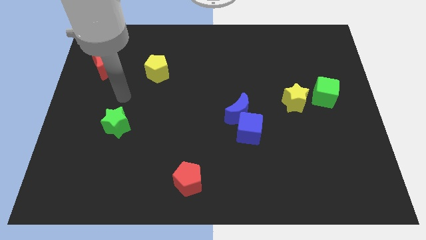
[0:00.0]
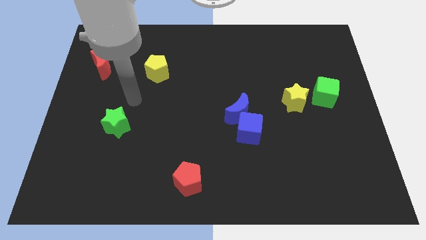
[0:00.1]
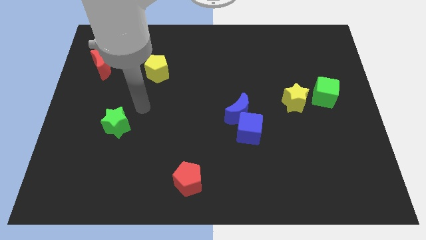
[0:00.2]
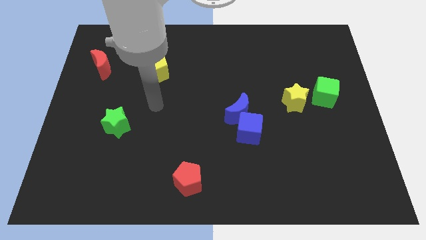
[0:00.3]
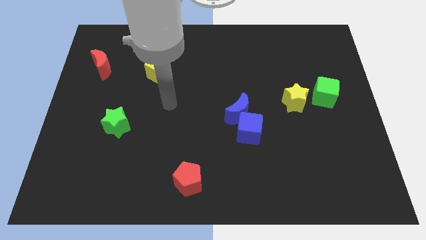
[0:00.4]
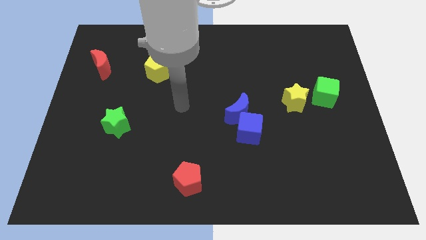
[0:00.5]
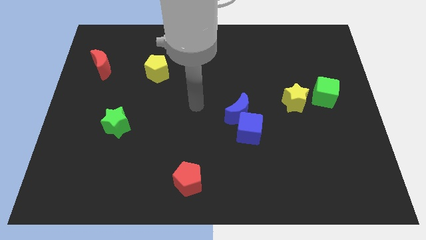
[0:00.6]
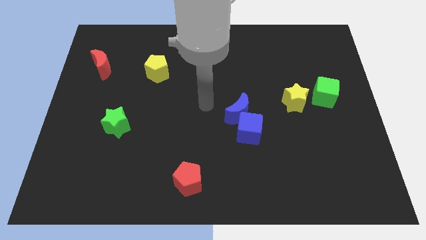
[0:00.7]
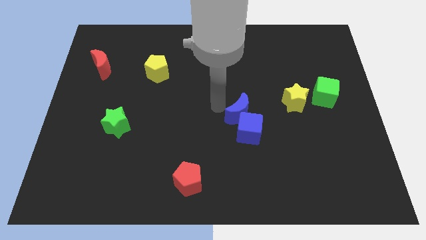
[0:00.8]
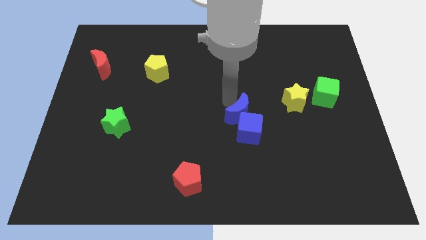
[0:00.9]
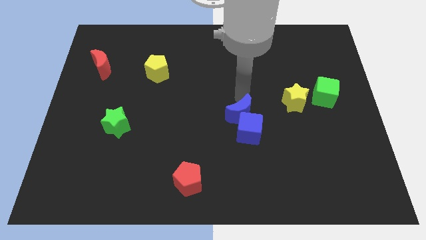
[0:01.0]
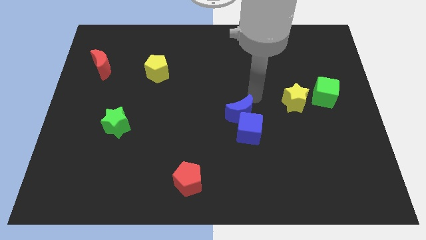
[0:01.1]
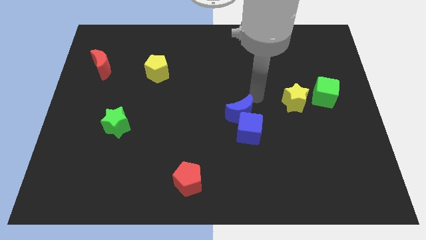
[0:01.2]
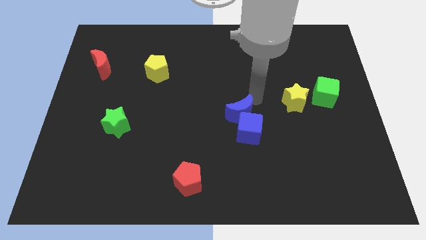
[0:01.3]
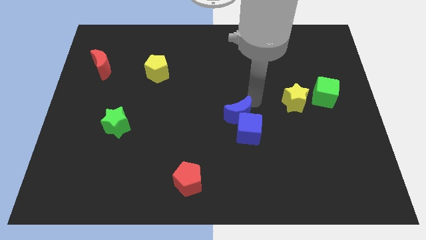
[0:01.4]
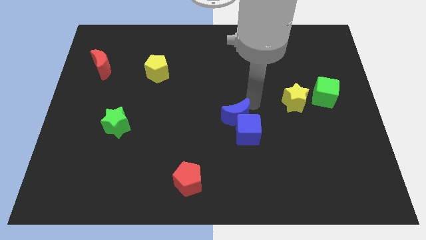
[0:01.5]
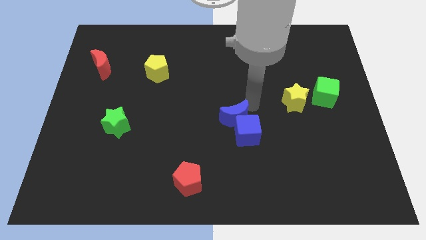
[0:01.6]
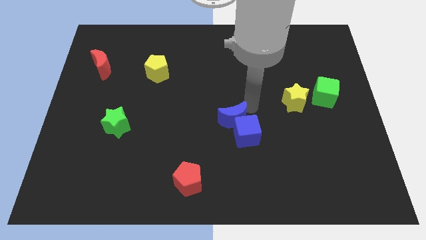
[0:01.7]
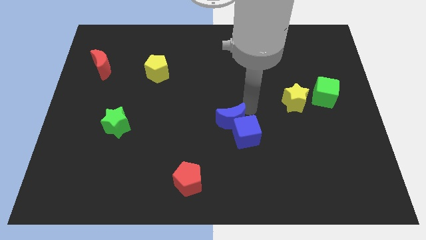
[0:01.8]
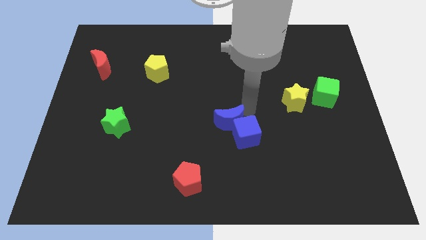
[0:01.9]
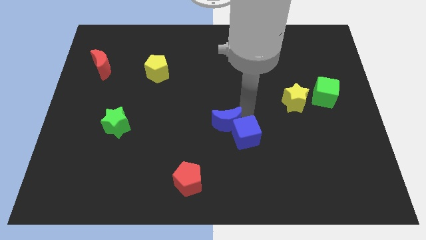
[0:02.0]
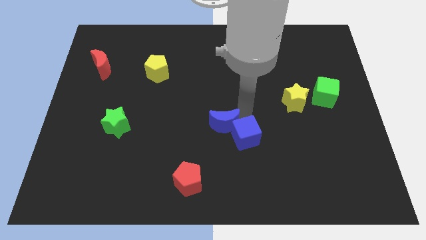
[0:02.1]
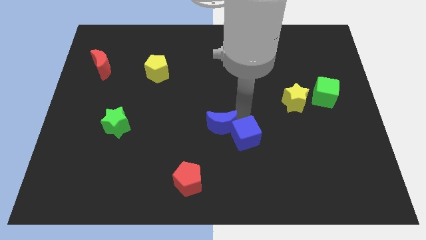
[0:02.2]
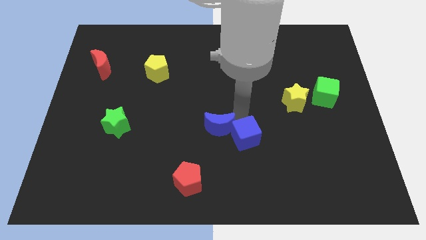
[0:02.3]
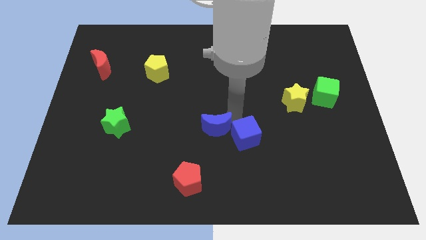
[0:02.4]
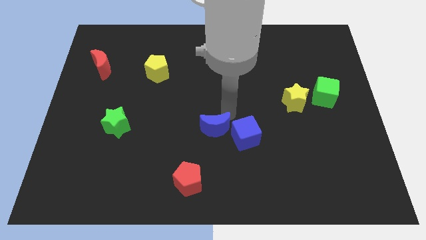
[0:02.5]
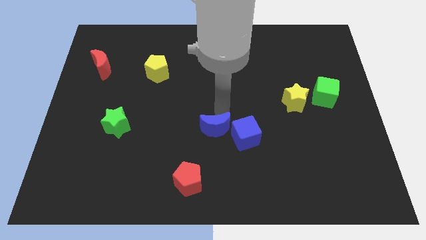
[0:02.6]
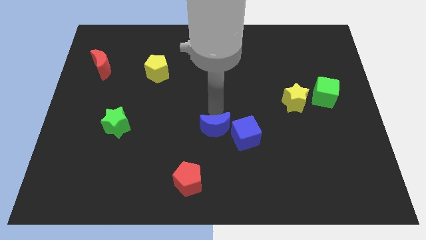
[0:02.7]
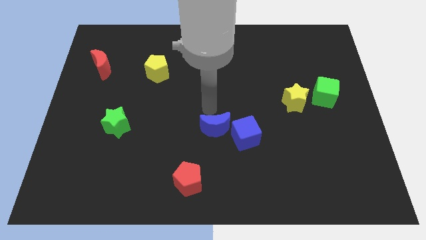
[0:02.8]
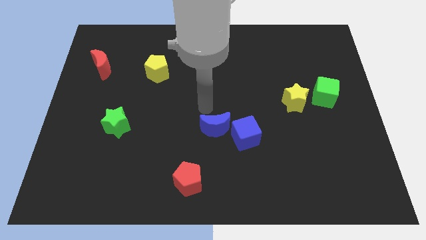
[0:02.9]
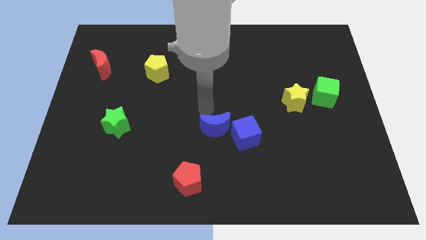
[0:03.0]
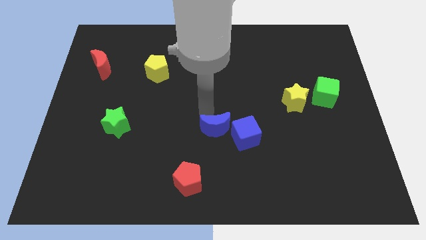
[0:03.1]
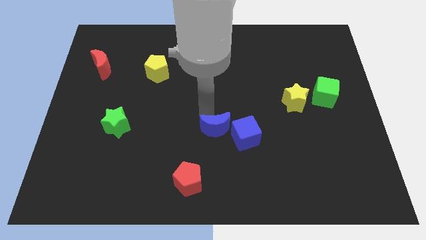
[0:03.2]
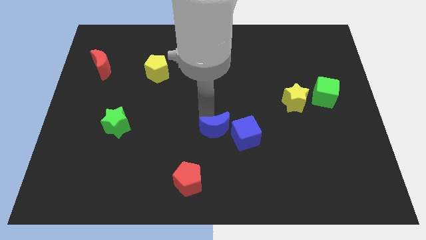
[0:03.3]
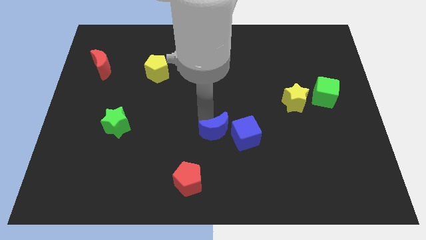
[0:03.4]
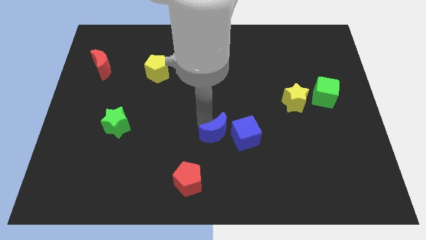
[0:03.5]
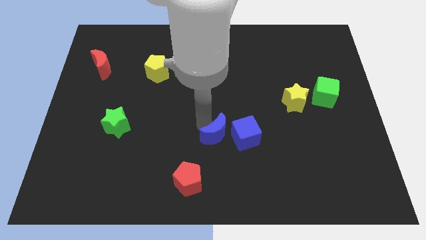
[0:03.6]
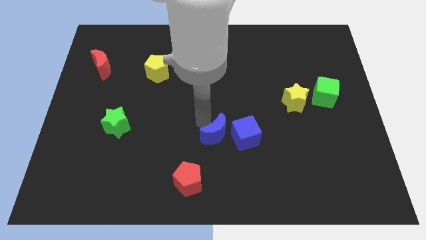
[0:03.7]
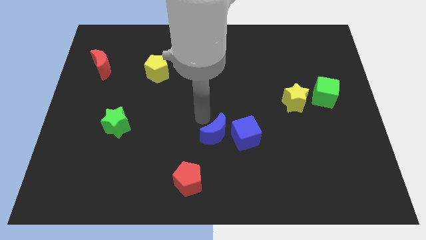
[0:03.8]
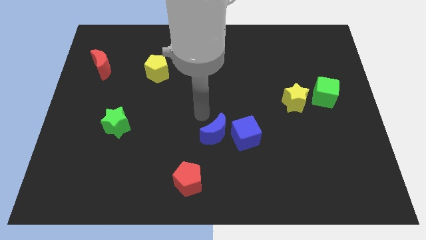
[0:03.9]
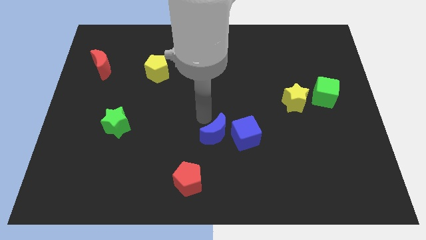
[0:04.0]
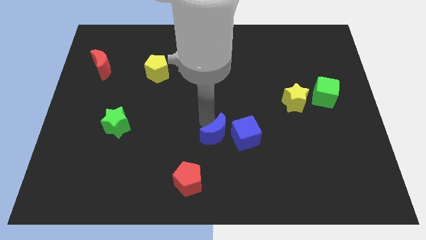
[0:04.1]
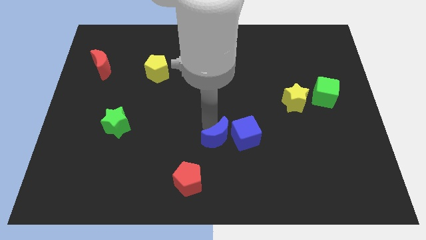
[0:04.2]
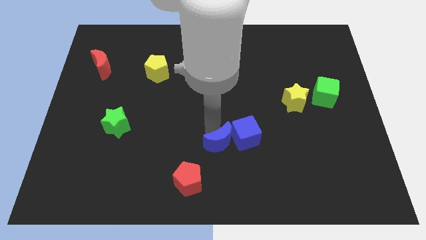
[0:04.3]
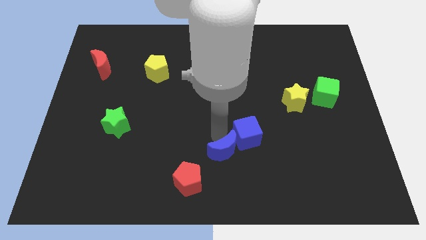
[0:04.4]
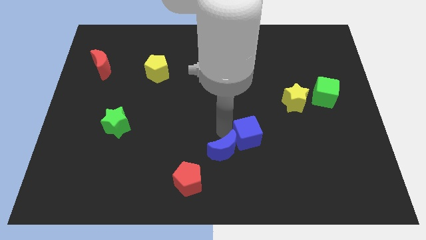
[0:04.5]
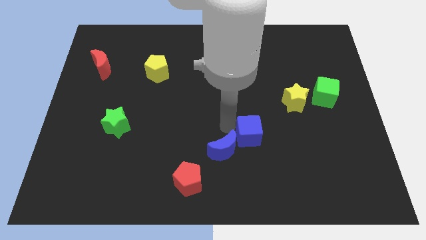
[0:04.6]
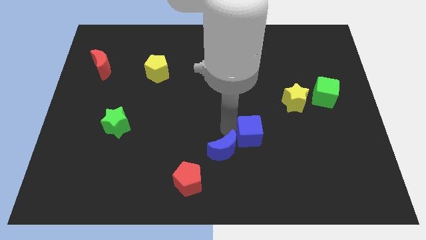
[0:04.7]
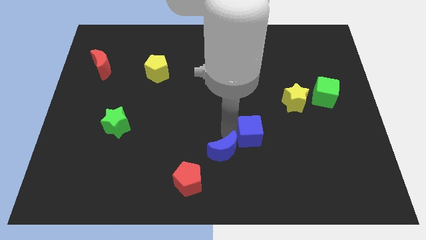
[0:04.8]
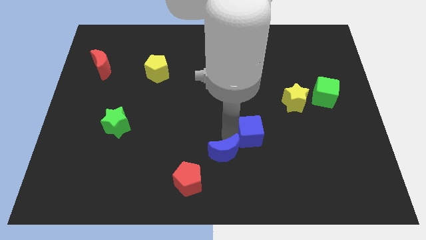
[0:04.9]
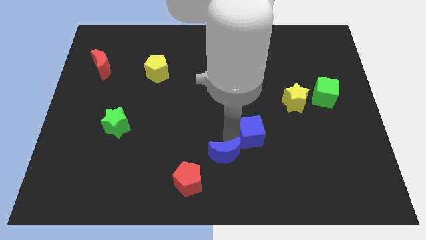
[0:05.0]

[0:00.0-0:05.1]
move the blue moon to the bottom

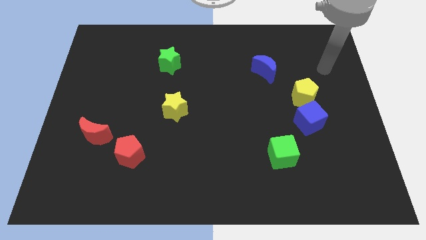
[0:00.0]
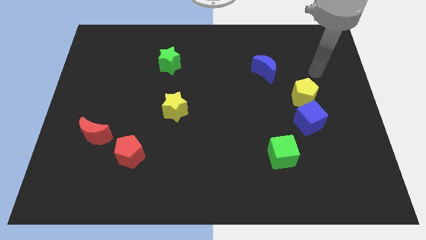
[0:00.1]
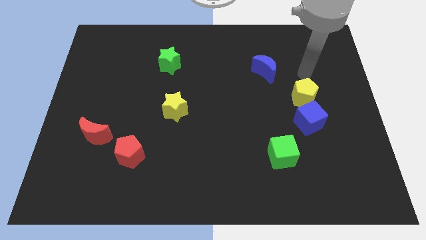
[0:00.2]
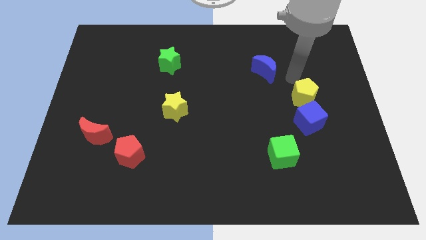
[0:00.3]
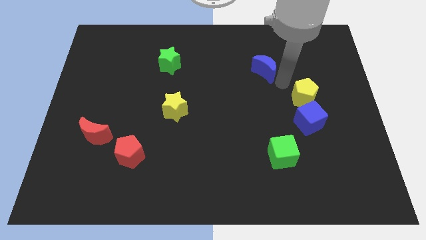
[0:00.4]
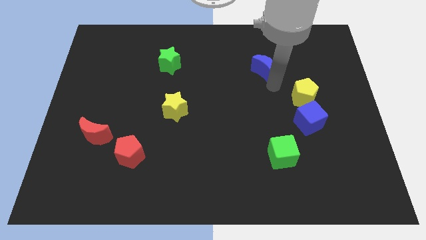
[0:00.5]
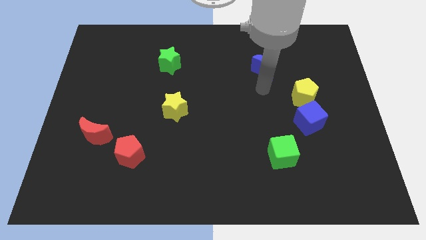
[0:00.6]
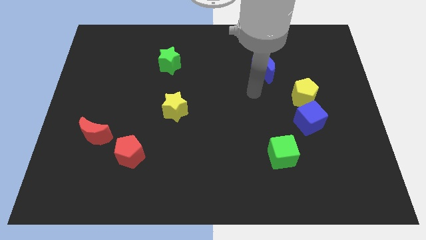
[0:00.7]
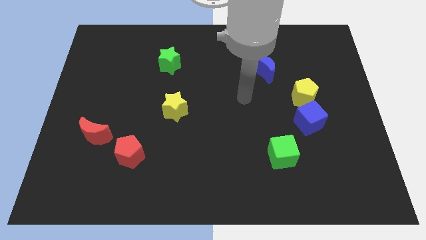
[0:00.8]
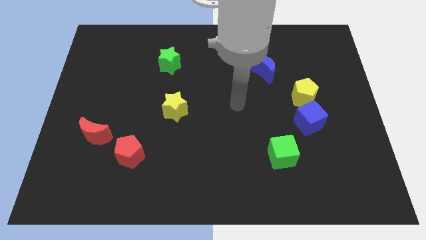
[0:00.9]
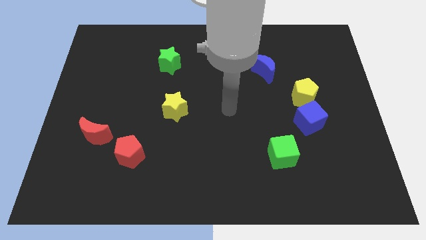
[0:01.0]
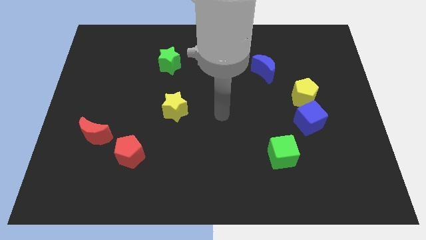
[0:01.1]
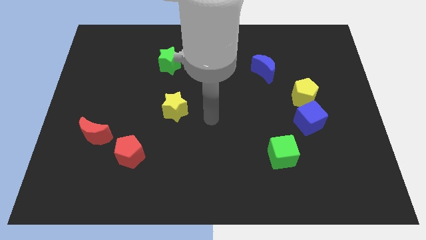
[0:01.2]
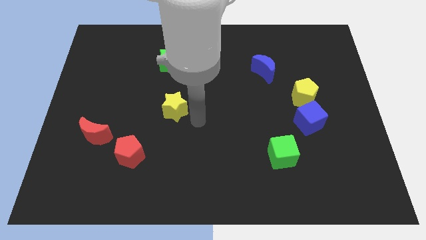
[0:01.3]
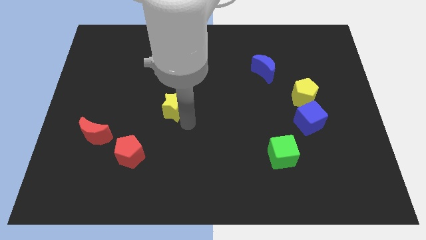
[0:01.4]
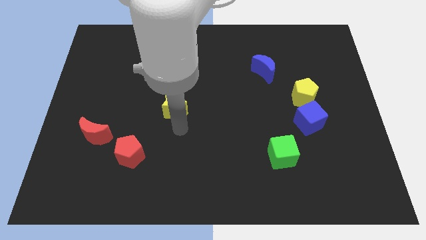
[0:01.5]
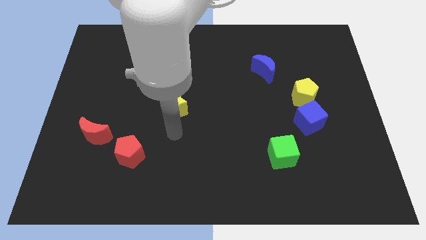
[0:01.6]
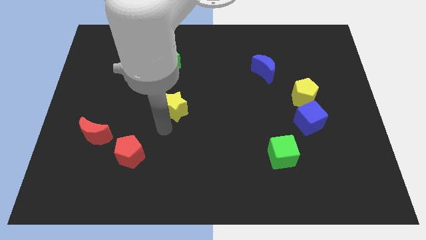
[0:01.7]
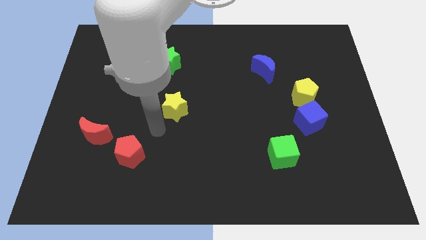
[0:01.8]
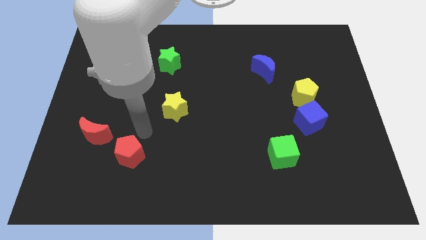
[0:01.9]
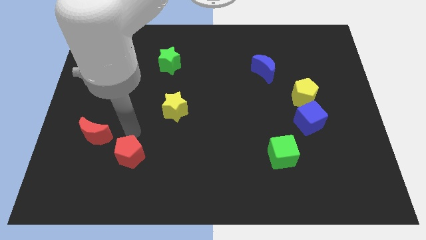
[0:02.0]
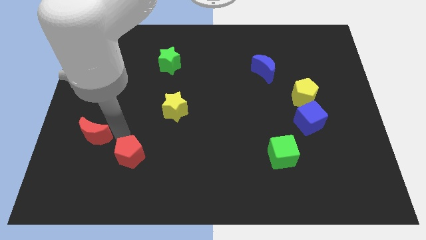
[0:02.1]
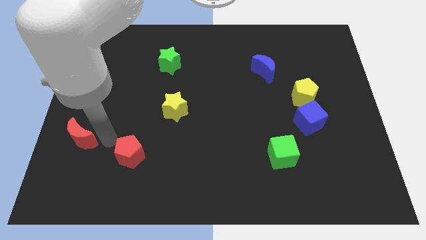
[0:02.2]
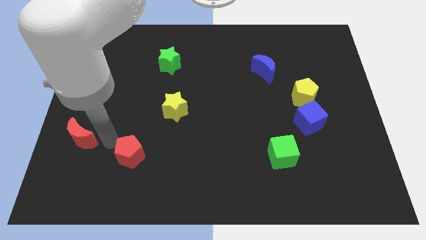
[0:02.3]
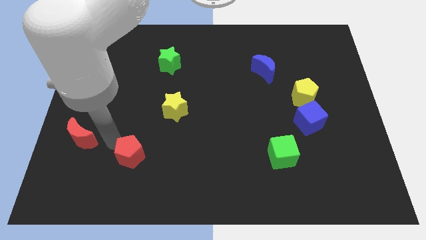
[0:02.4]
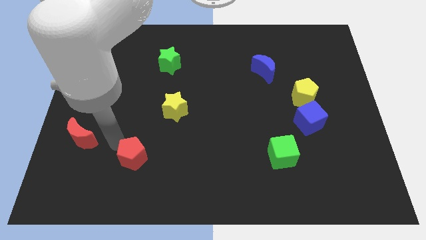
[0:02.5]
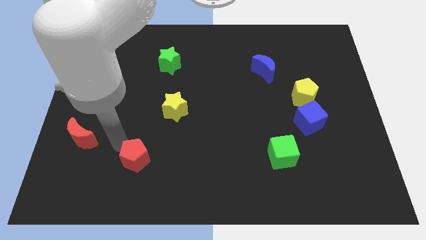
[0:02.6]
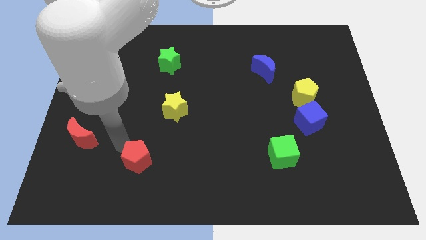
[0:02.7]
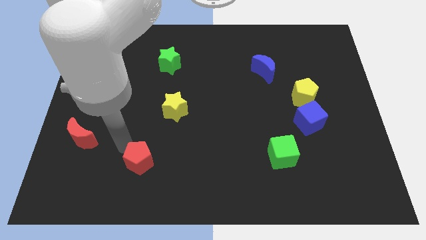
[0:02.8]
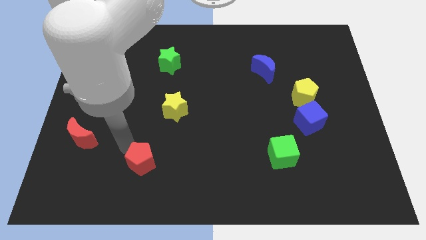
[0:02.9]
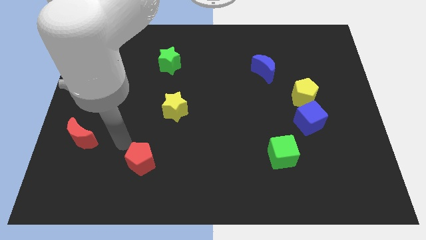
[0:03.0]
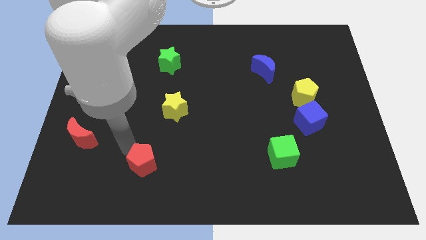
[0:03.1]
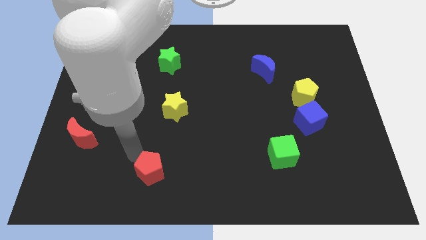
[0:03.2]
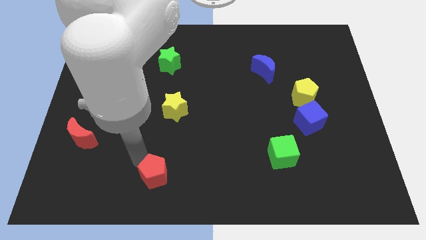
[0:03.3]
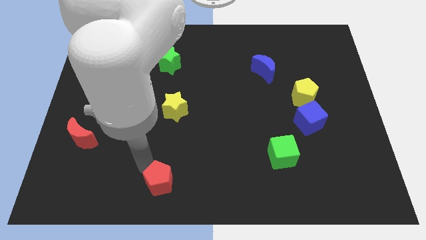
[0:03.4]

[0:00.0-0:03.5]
push the red pentagon to the bottom
